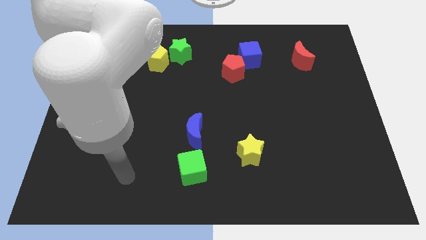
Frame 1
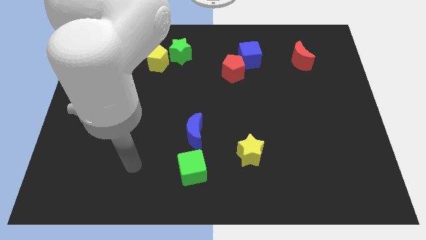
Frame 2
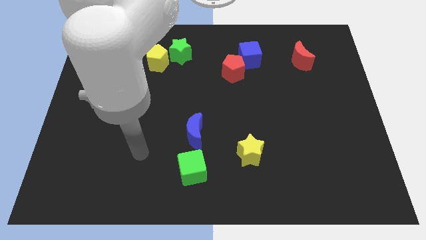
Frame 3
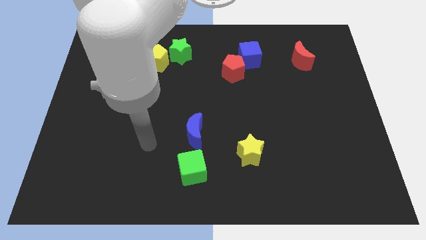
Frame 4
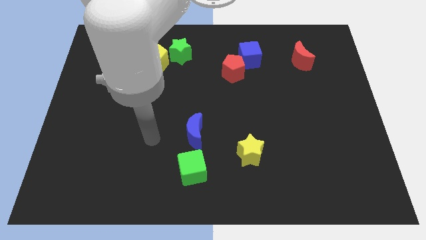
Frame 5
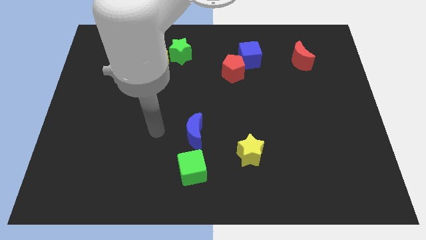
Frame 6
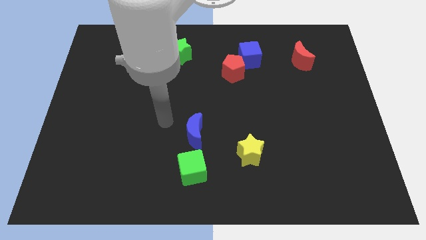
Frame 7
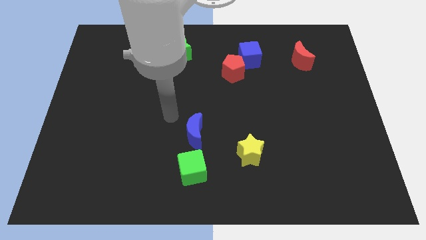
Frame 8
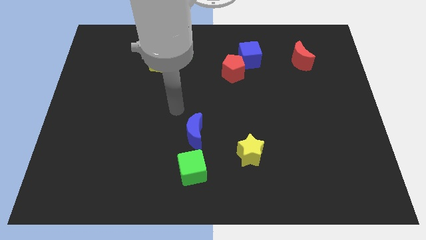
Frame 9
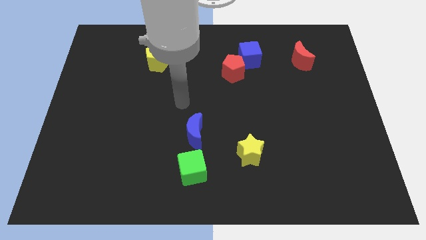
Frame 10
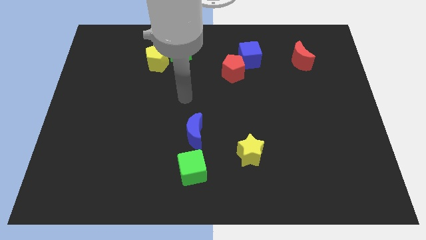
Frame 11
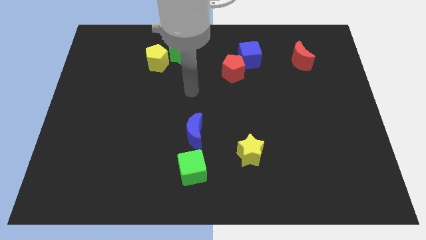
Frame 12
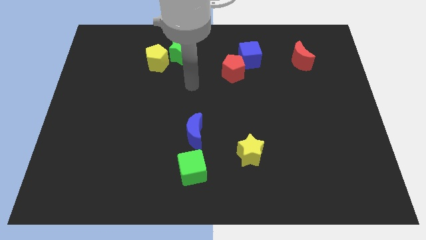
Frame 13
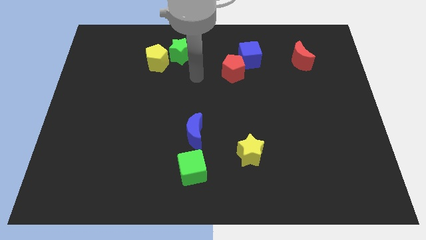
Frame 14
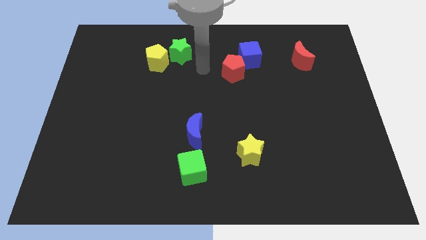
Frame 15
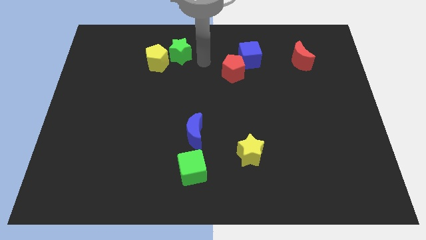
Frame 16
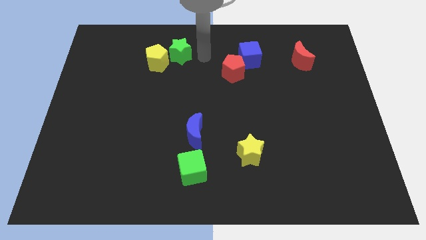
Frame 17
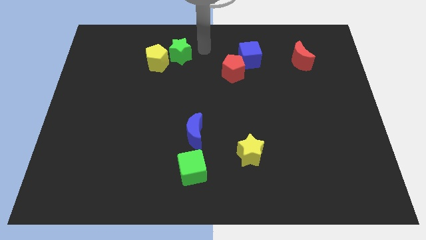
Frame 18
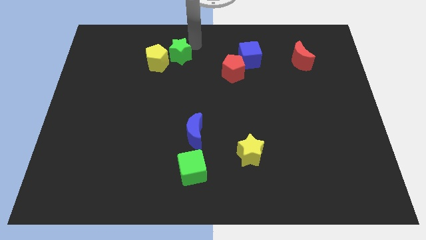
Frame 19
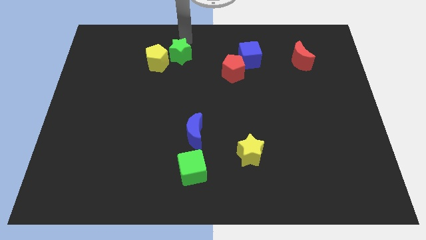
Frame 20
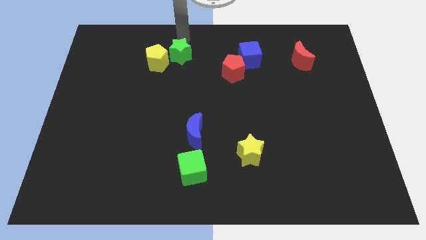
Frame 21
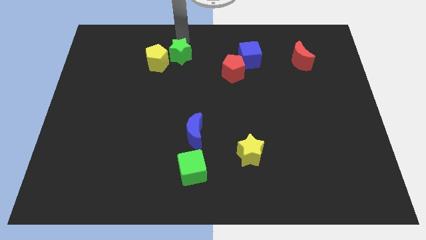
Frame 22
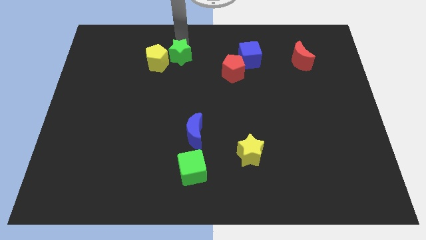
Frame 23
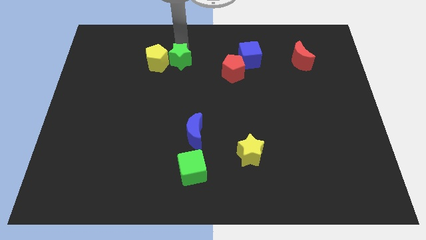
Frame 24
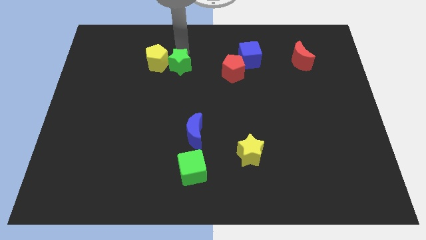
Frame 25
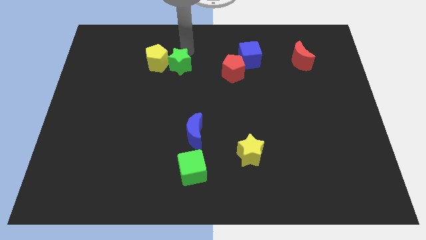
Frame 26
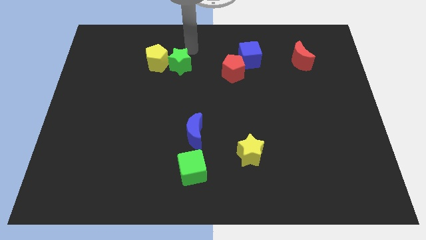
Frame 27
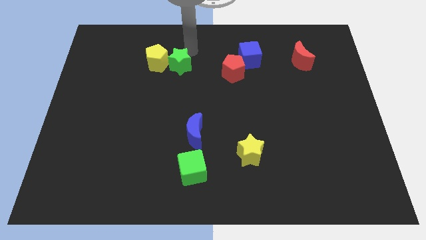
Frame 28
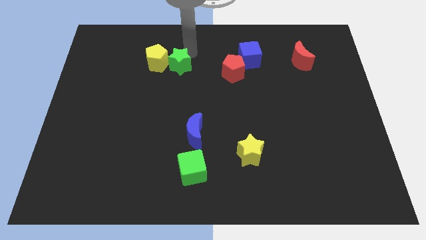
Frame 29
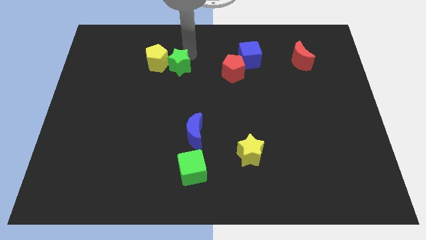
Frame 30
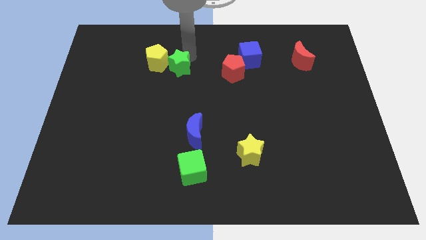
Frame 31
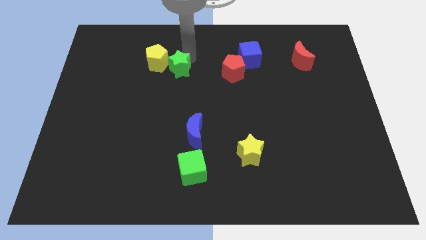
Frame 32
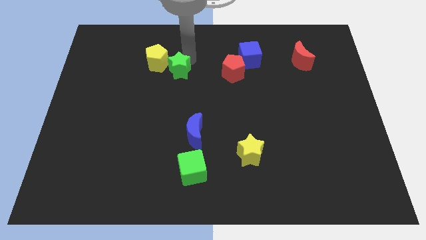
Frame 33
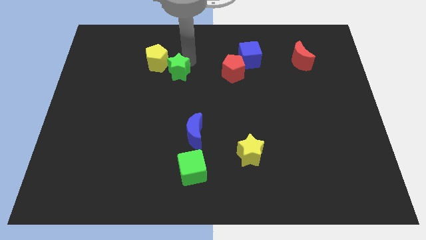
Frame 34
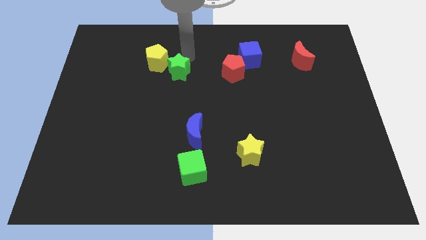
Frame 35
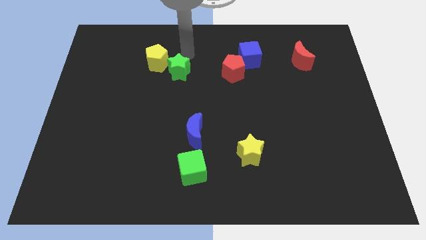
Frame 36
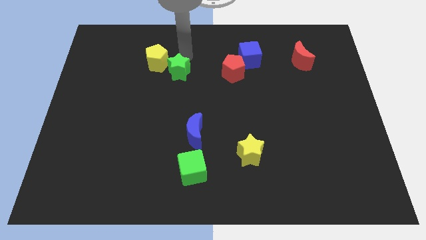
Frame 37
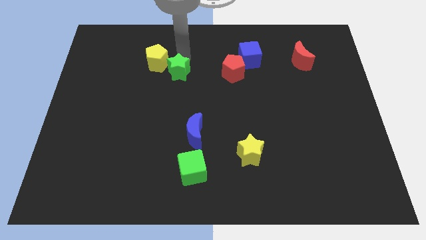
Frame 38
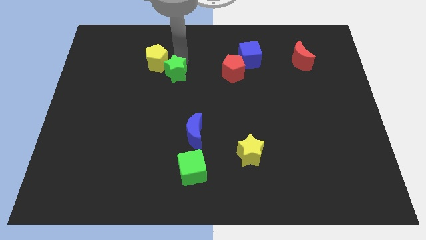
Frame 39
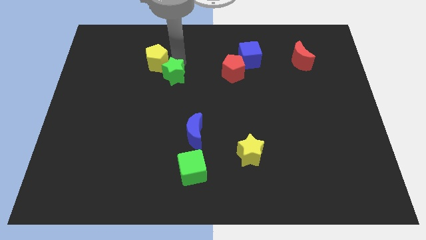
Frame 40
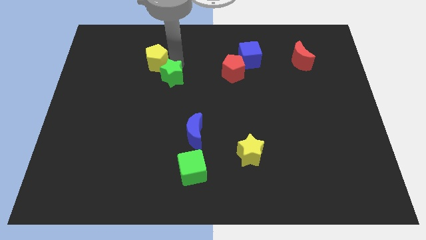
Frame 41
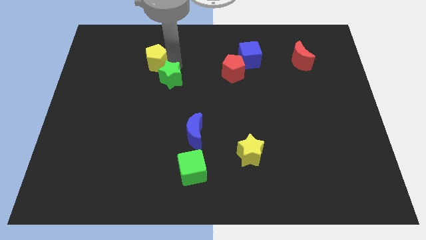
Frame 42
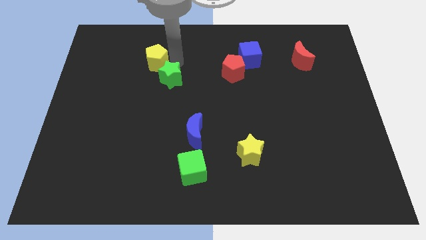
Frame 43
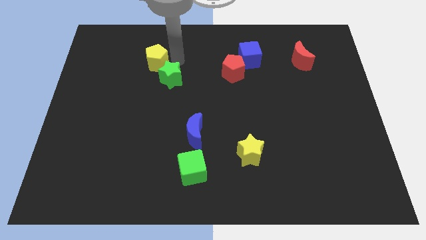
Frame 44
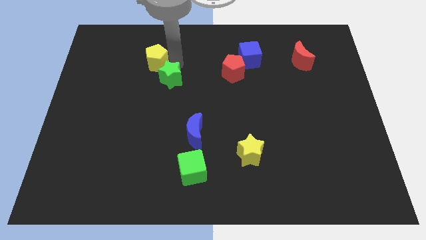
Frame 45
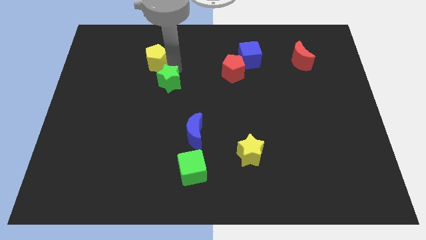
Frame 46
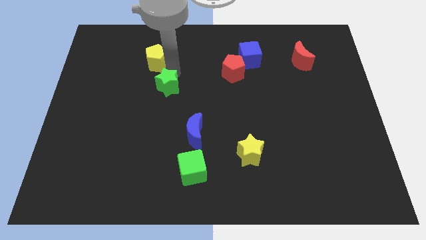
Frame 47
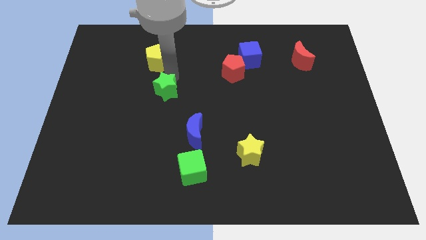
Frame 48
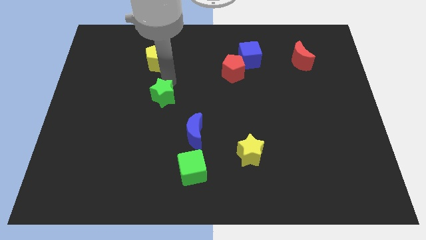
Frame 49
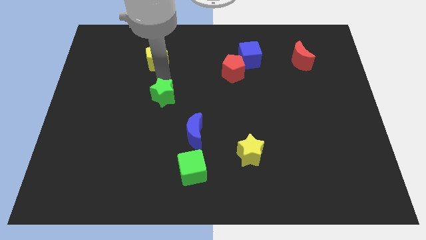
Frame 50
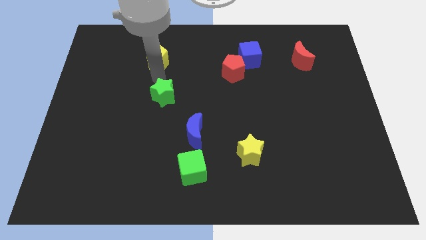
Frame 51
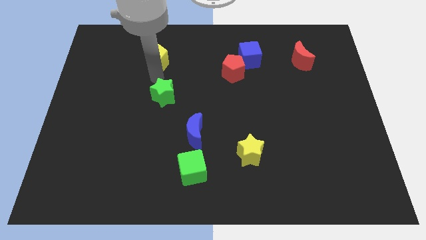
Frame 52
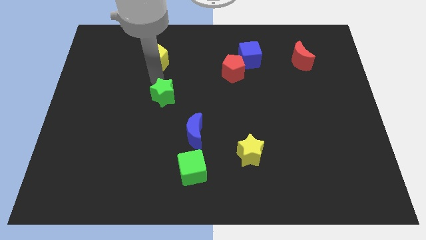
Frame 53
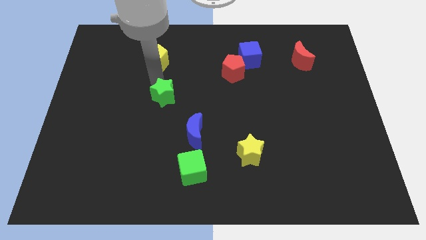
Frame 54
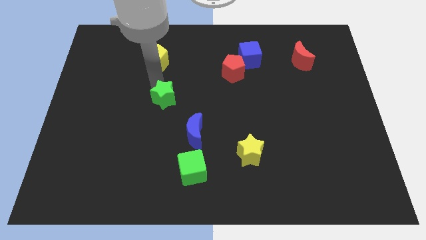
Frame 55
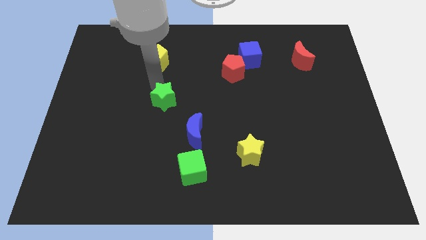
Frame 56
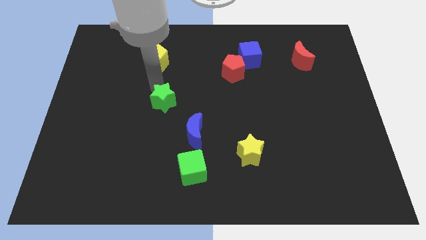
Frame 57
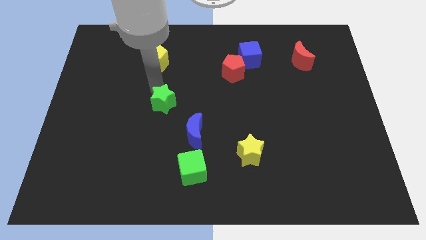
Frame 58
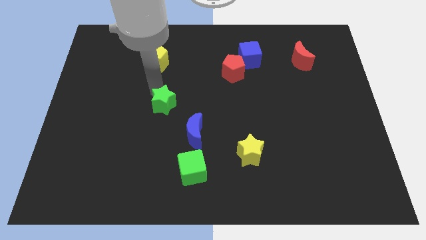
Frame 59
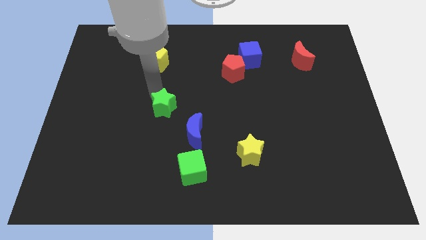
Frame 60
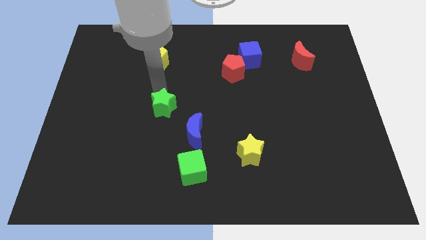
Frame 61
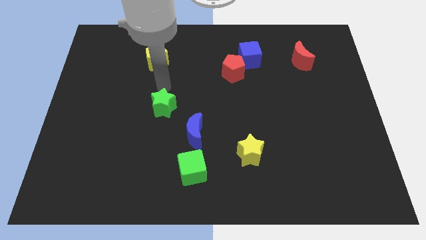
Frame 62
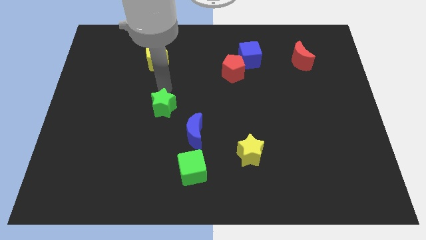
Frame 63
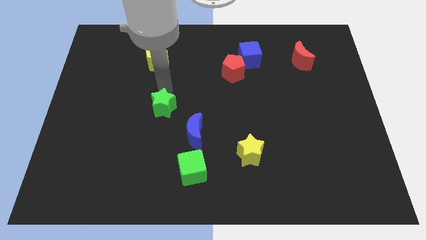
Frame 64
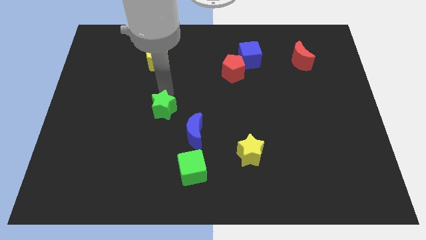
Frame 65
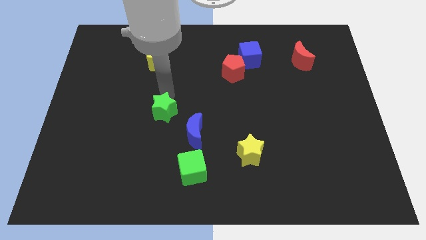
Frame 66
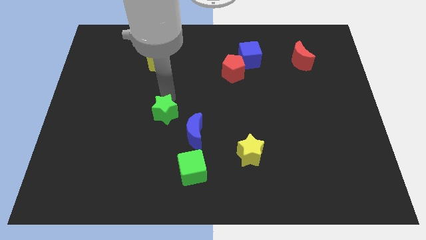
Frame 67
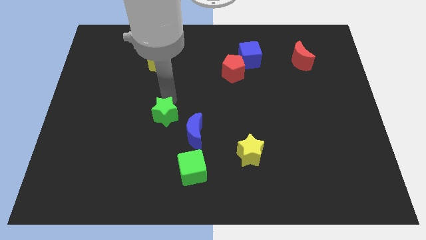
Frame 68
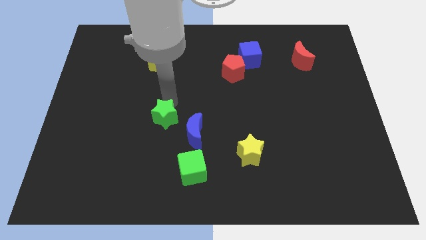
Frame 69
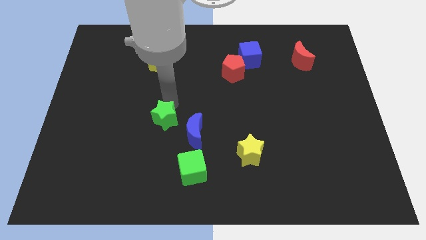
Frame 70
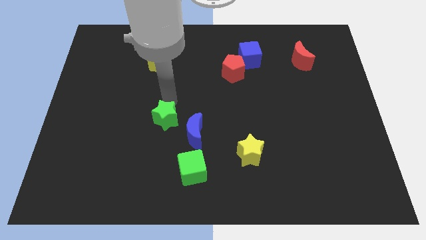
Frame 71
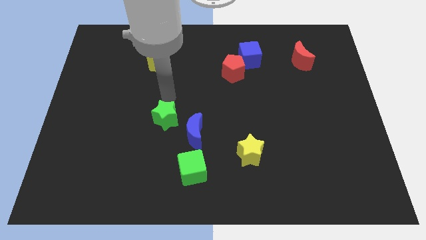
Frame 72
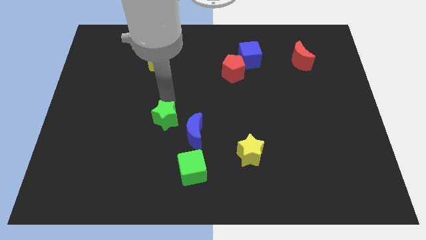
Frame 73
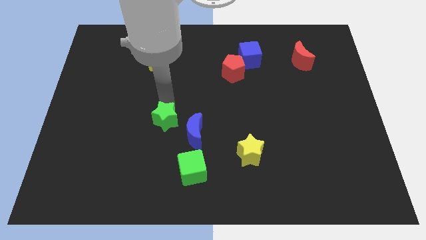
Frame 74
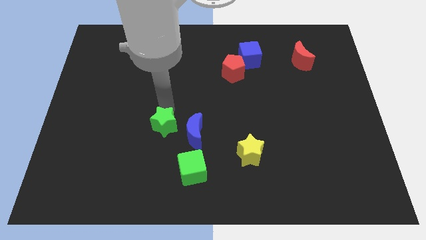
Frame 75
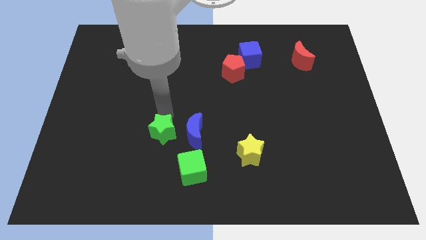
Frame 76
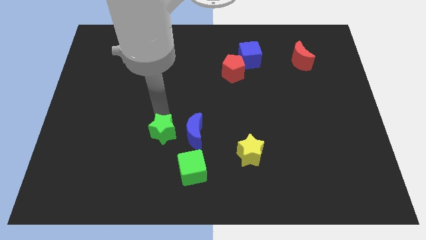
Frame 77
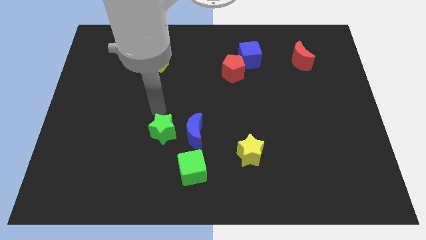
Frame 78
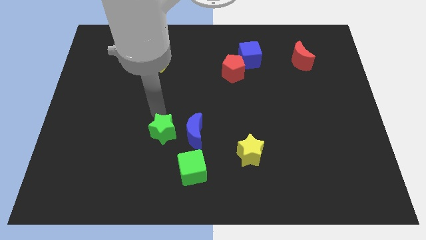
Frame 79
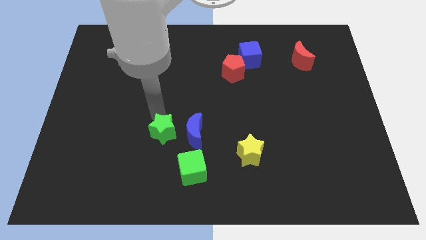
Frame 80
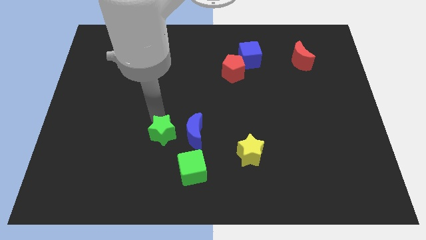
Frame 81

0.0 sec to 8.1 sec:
move the green star diagonally down and to the left of the blue moon
